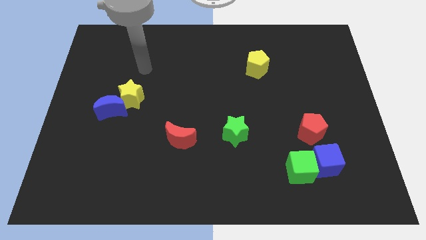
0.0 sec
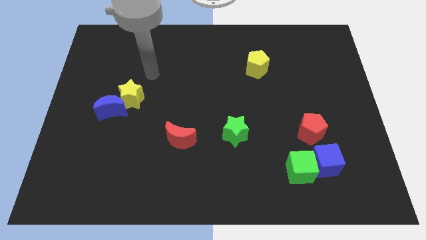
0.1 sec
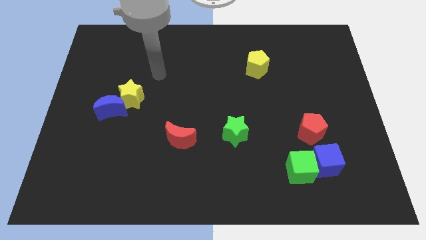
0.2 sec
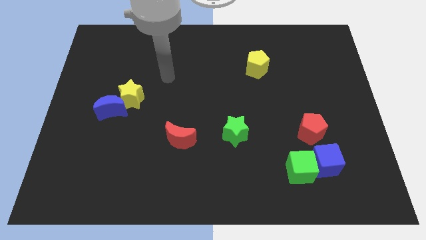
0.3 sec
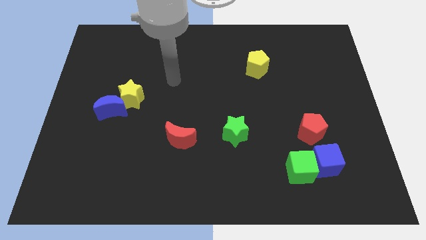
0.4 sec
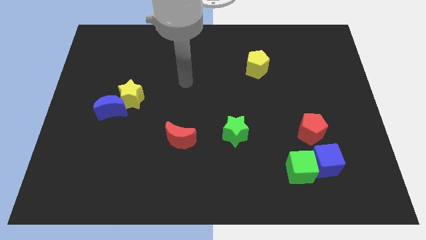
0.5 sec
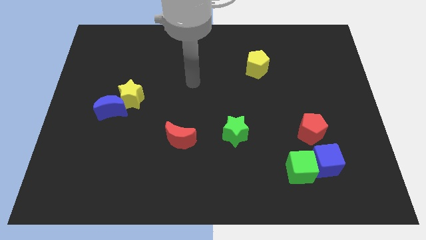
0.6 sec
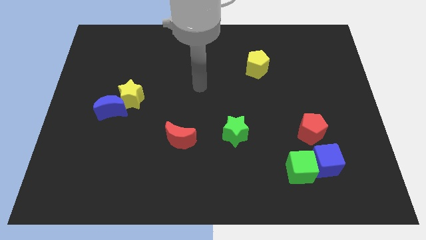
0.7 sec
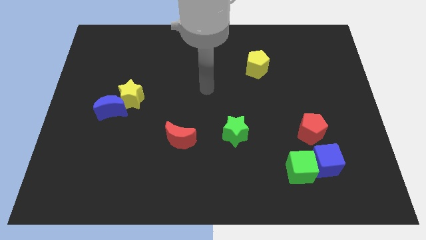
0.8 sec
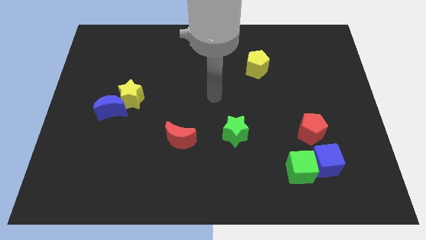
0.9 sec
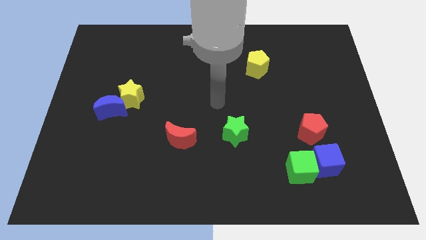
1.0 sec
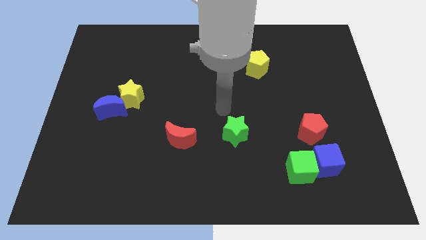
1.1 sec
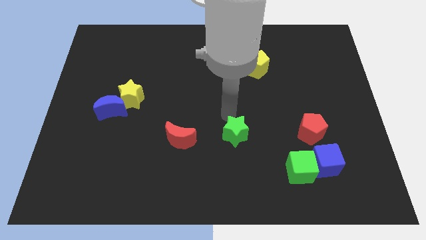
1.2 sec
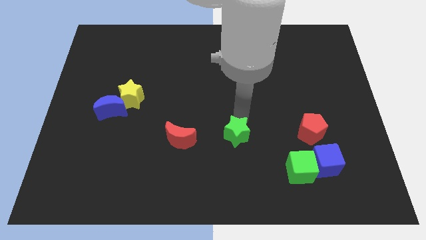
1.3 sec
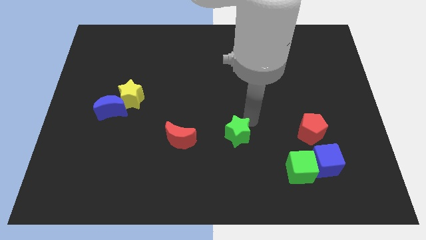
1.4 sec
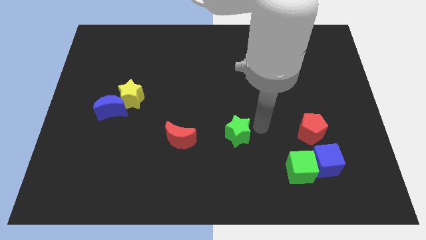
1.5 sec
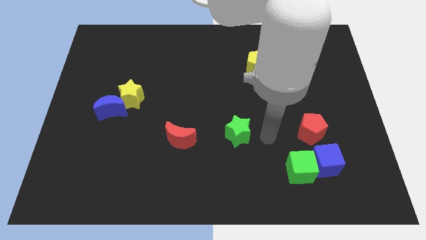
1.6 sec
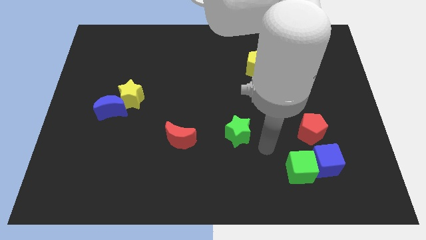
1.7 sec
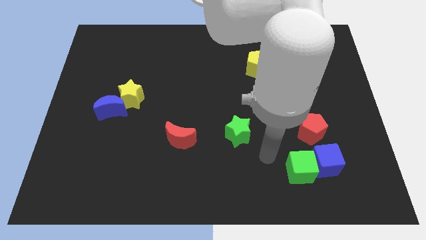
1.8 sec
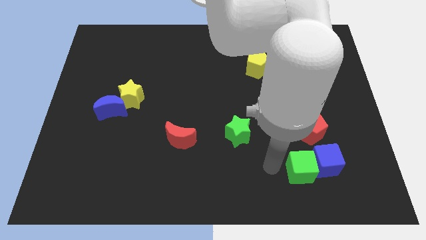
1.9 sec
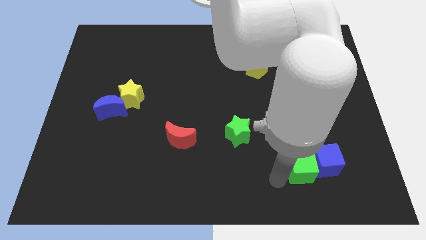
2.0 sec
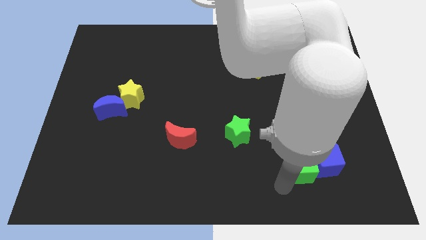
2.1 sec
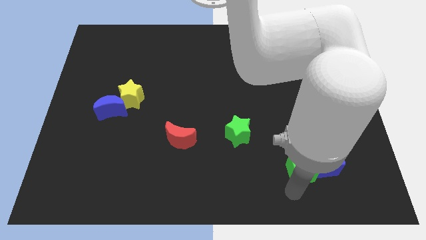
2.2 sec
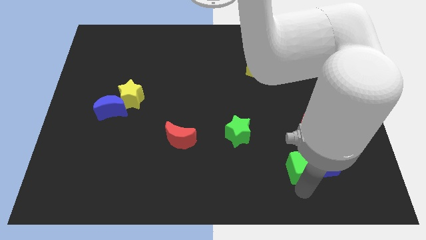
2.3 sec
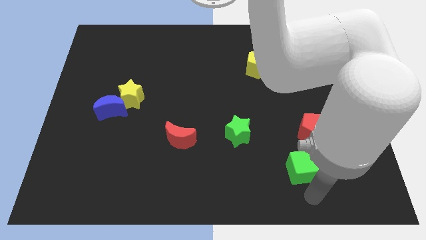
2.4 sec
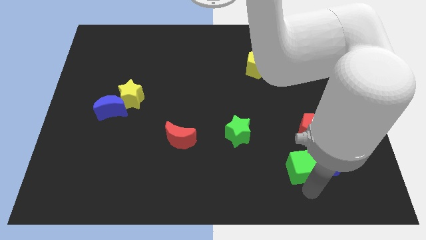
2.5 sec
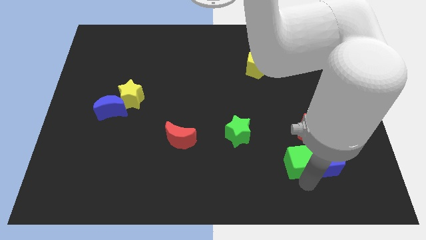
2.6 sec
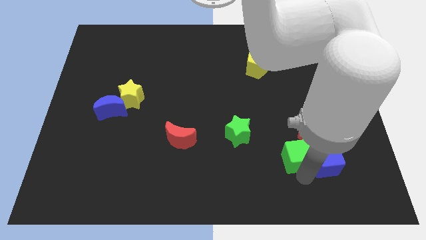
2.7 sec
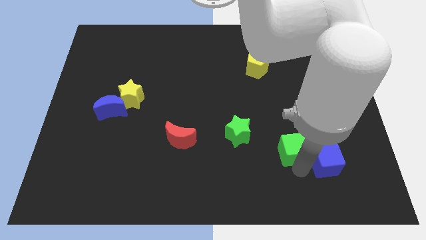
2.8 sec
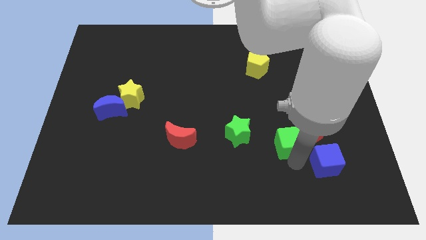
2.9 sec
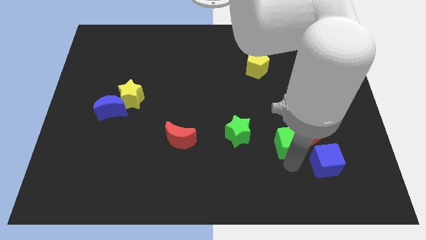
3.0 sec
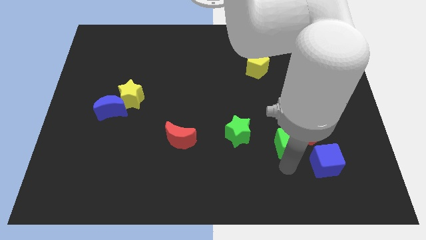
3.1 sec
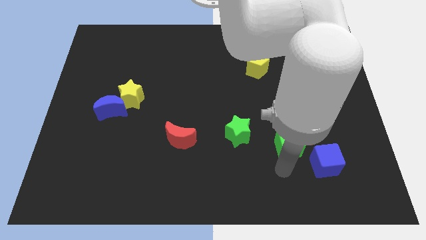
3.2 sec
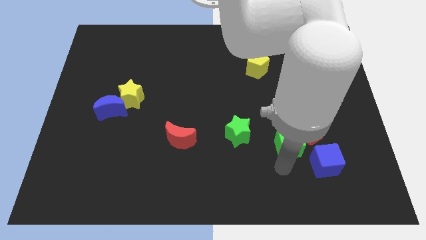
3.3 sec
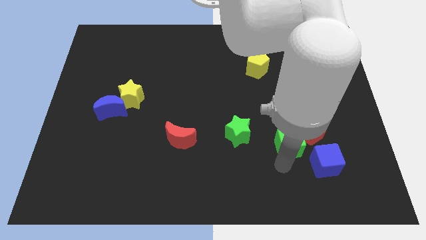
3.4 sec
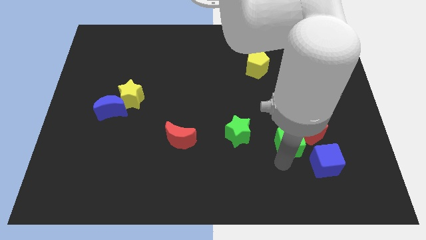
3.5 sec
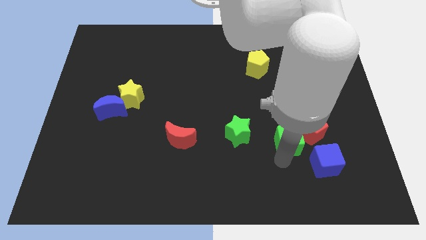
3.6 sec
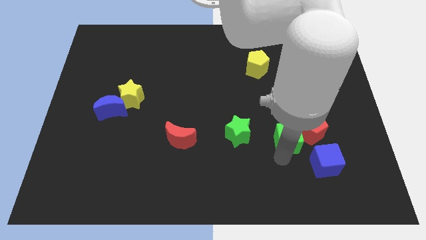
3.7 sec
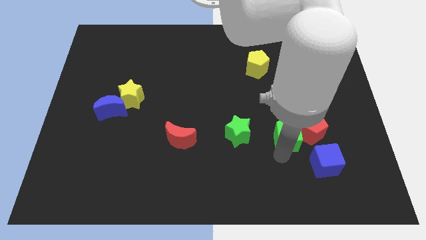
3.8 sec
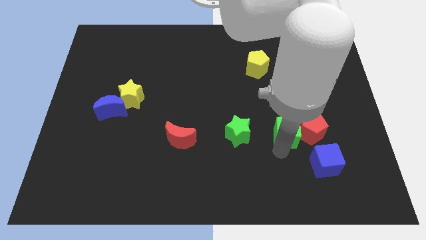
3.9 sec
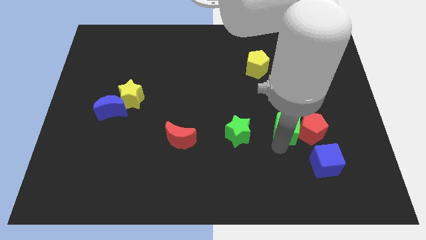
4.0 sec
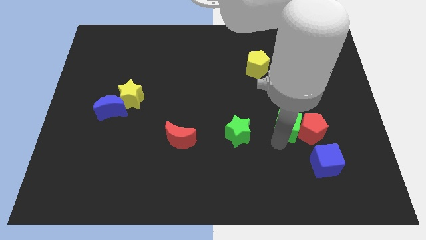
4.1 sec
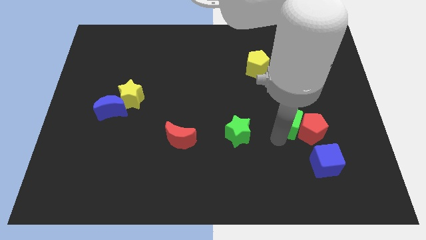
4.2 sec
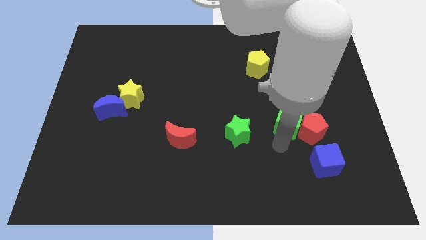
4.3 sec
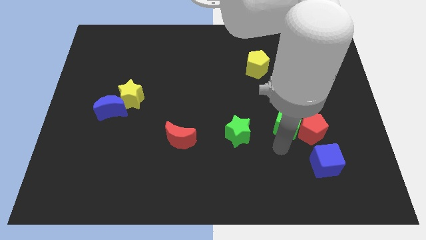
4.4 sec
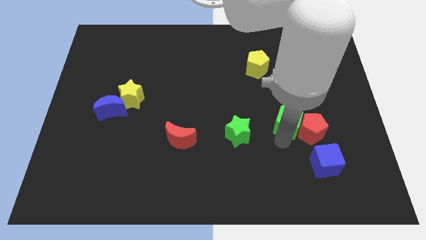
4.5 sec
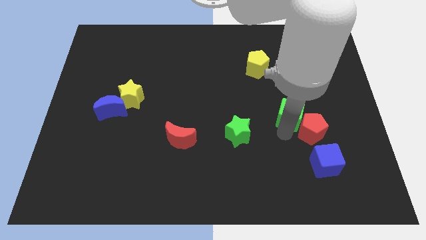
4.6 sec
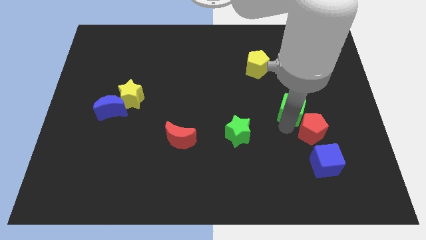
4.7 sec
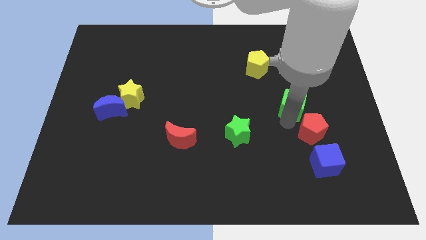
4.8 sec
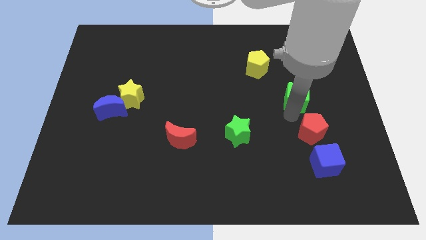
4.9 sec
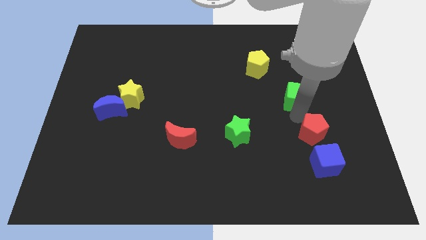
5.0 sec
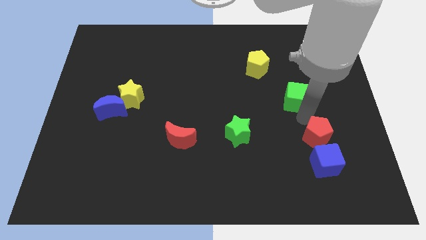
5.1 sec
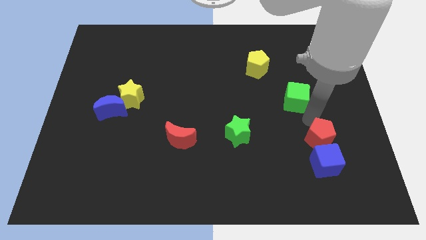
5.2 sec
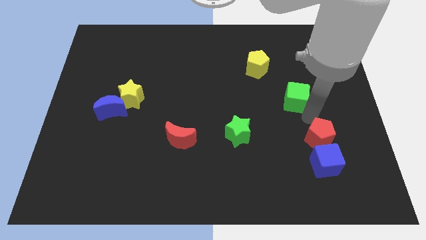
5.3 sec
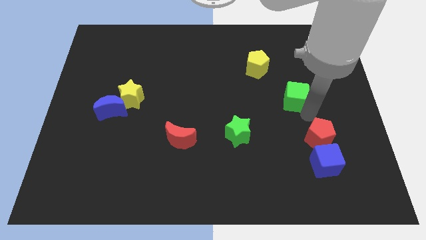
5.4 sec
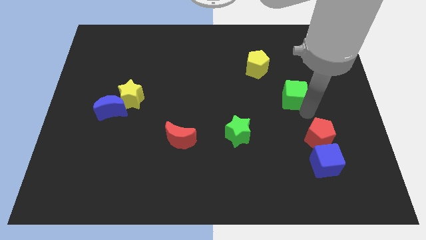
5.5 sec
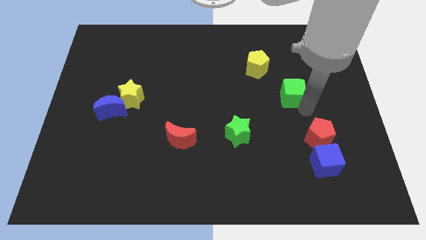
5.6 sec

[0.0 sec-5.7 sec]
push the green cube up

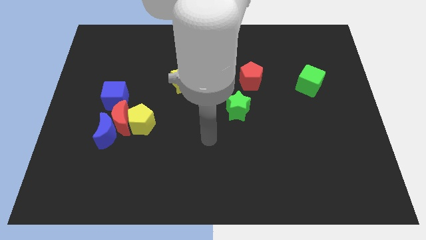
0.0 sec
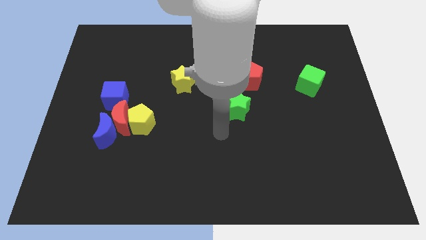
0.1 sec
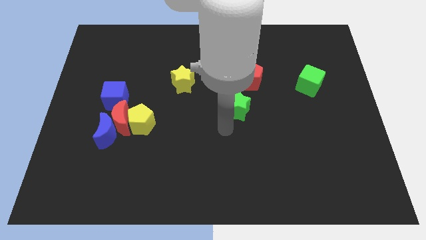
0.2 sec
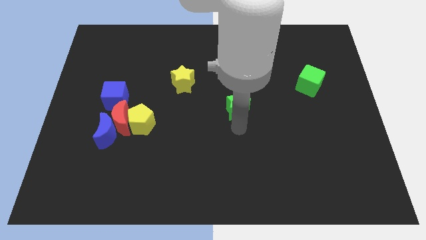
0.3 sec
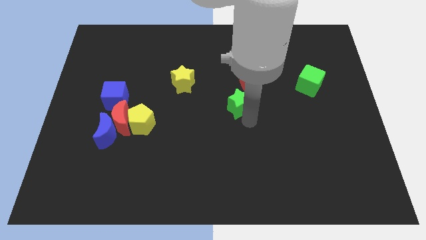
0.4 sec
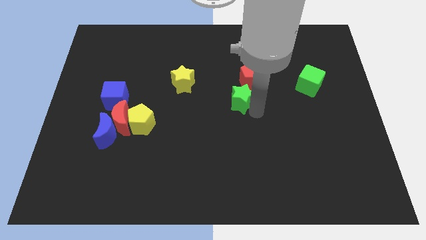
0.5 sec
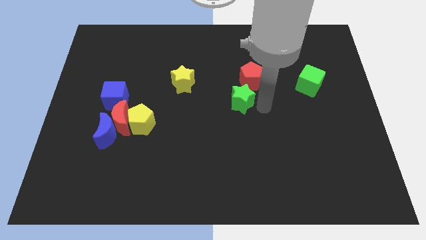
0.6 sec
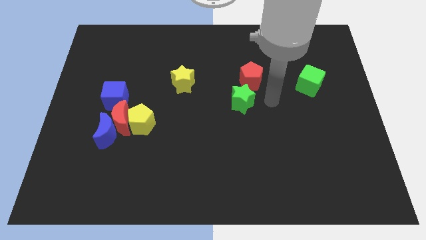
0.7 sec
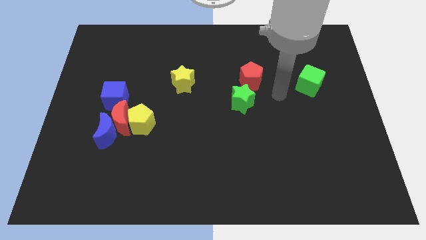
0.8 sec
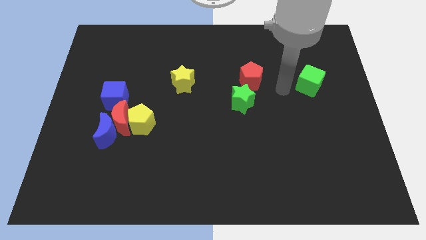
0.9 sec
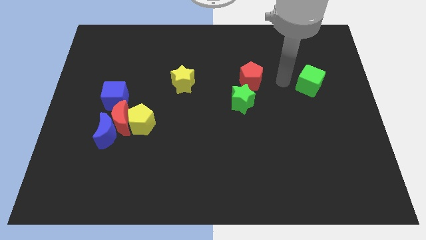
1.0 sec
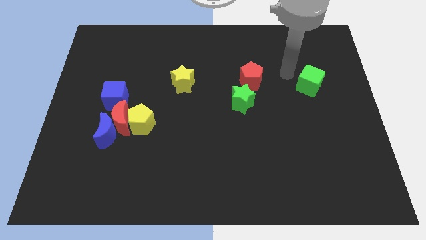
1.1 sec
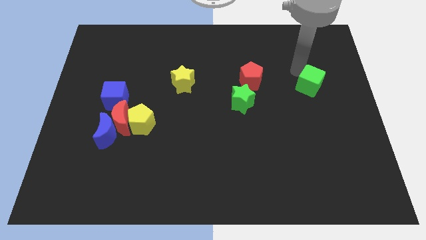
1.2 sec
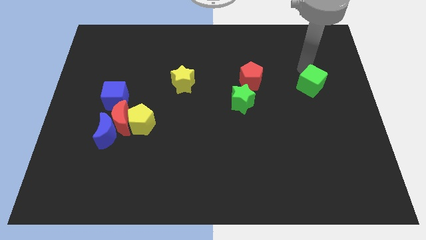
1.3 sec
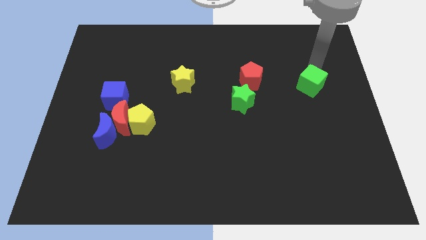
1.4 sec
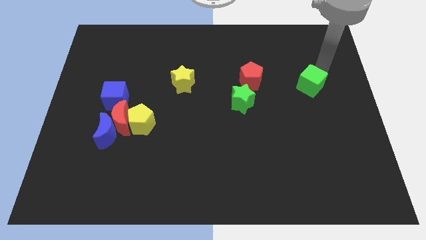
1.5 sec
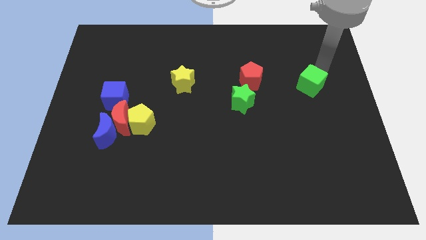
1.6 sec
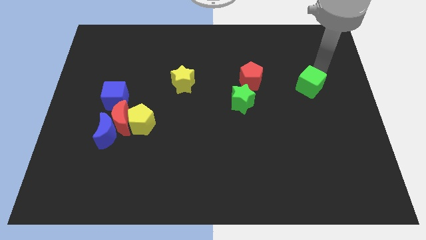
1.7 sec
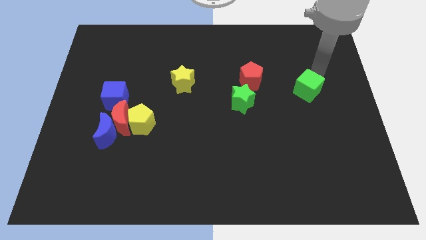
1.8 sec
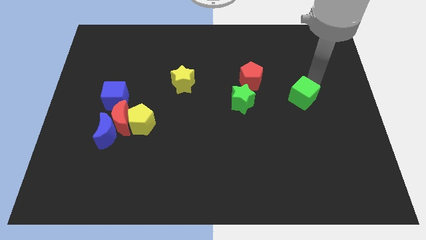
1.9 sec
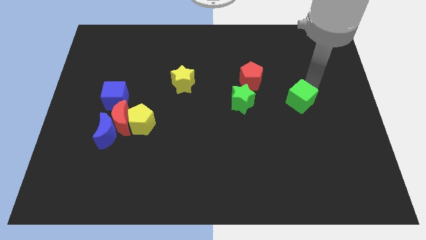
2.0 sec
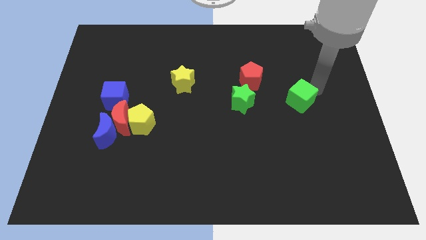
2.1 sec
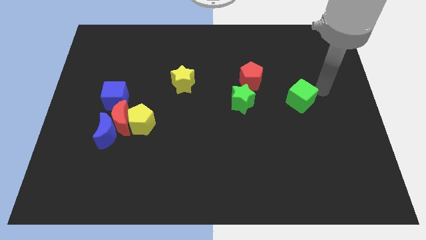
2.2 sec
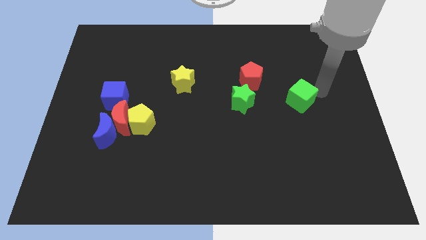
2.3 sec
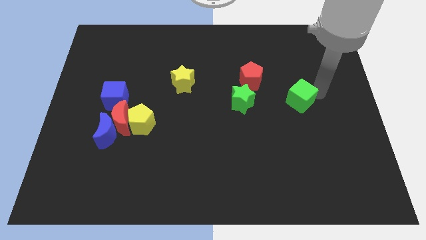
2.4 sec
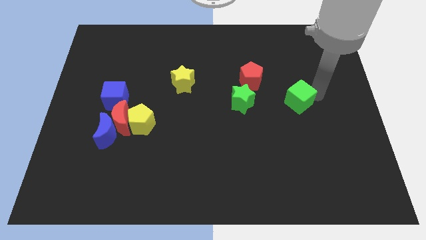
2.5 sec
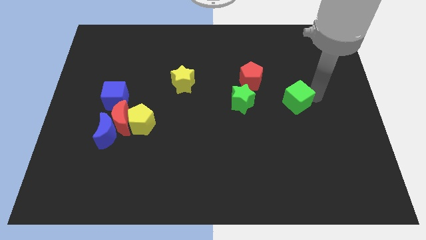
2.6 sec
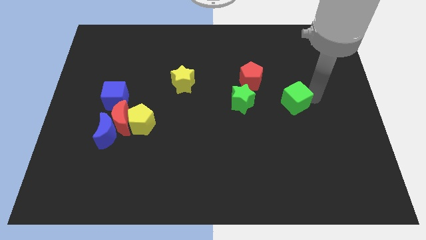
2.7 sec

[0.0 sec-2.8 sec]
slide the green cube downwards and then to the left a bit
